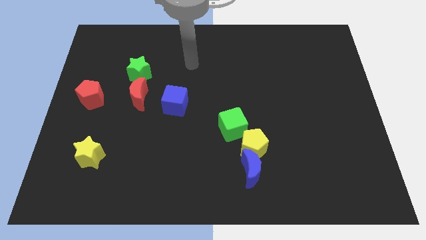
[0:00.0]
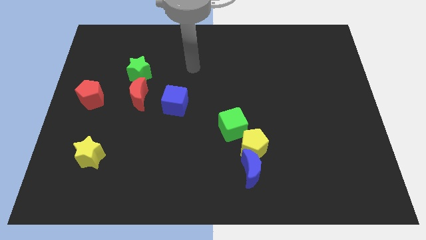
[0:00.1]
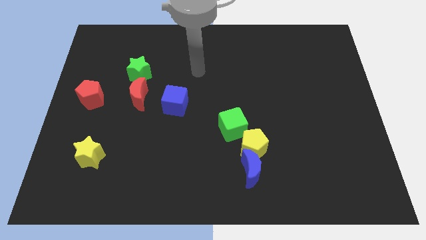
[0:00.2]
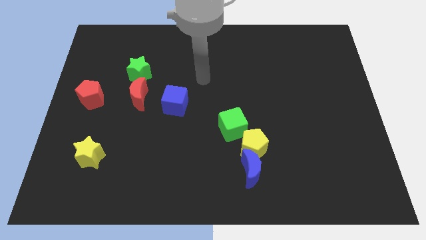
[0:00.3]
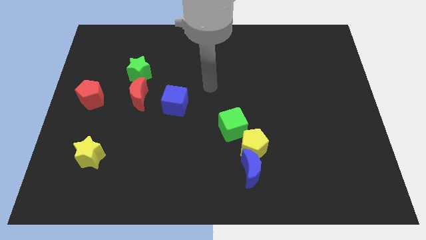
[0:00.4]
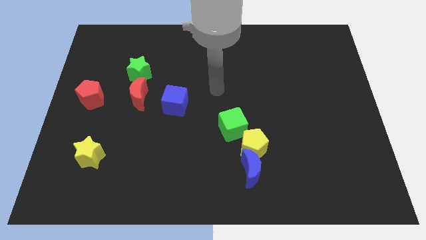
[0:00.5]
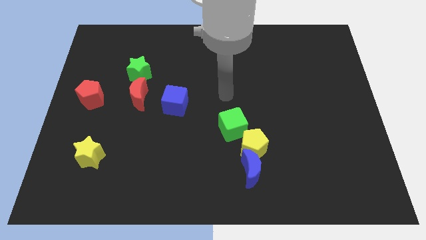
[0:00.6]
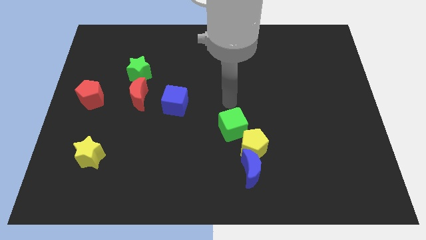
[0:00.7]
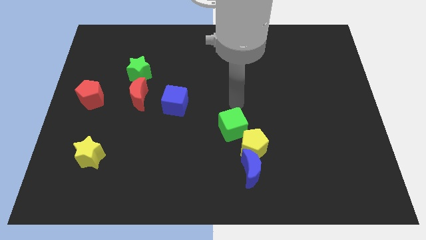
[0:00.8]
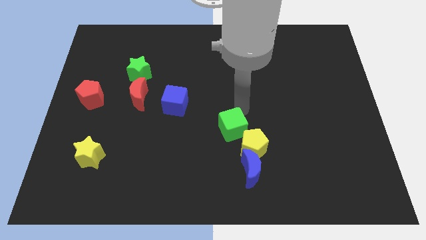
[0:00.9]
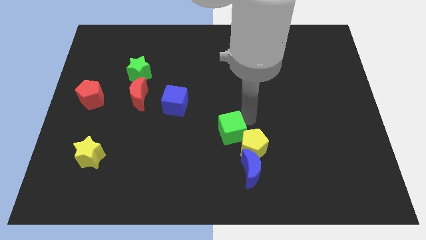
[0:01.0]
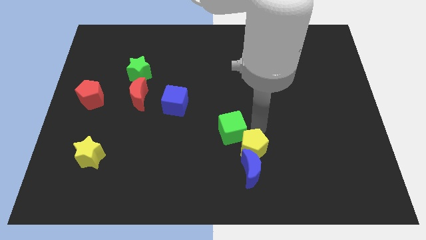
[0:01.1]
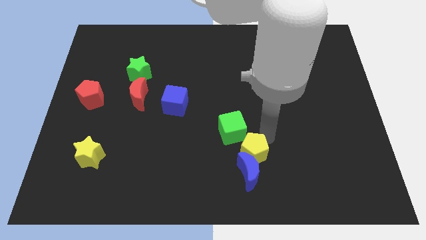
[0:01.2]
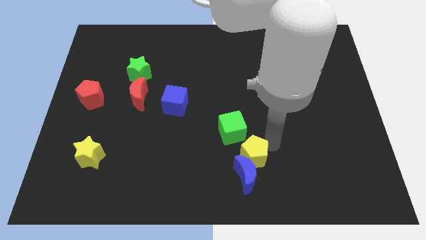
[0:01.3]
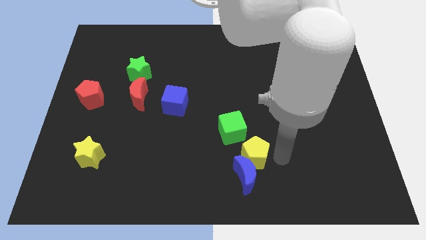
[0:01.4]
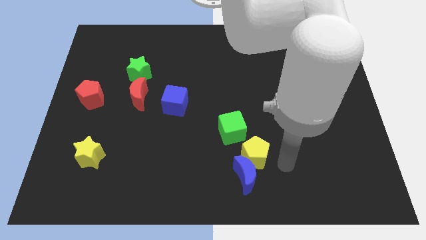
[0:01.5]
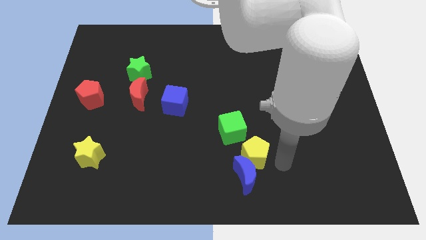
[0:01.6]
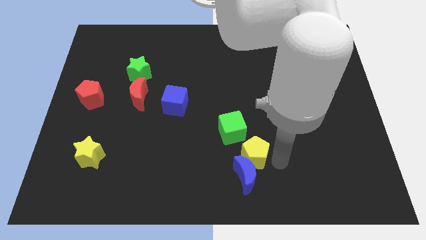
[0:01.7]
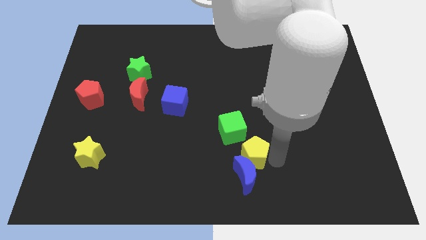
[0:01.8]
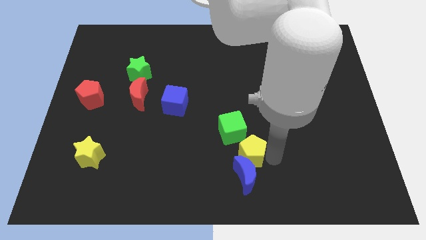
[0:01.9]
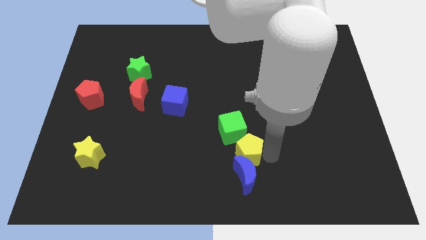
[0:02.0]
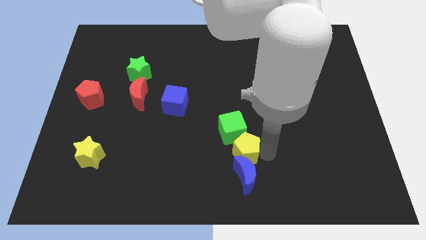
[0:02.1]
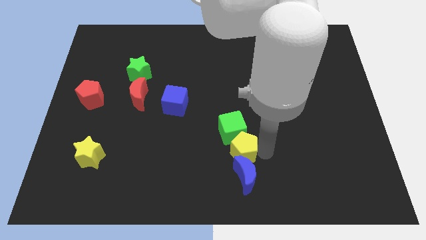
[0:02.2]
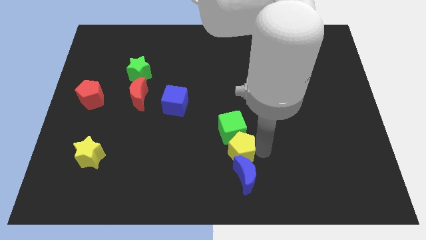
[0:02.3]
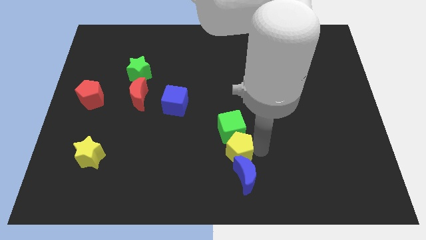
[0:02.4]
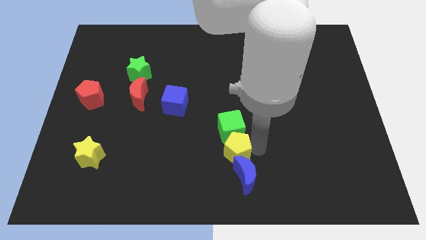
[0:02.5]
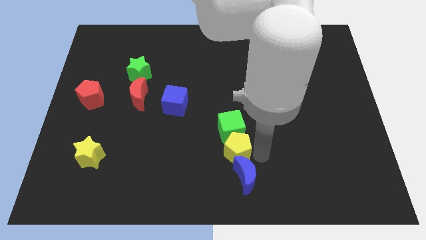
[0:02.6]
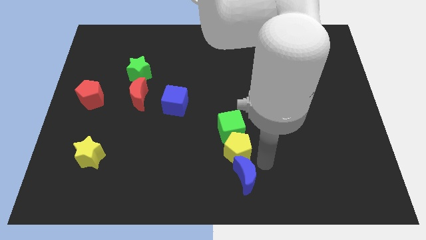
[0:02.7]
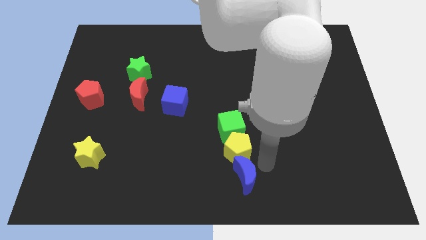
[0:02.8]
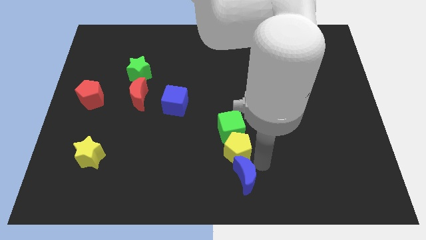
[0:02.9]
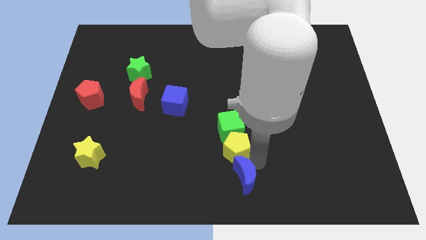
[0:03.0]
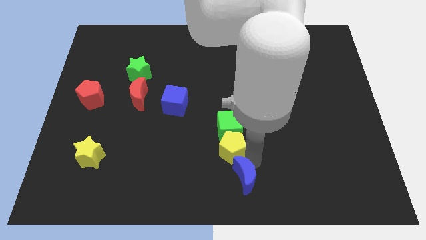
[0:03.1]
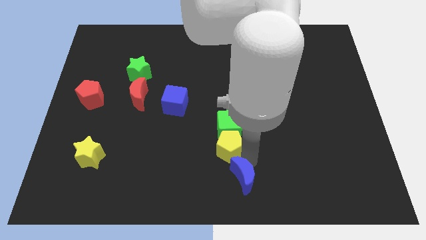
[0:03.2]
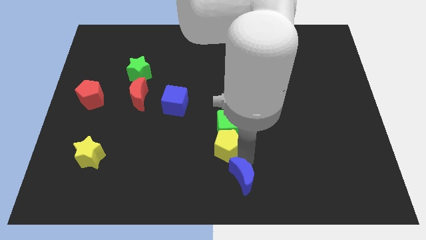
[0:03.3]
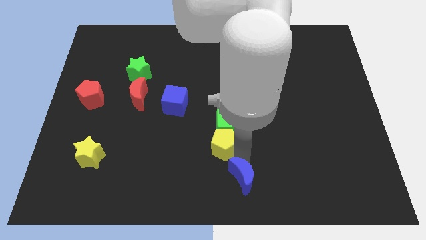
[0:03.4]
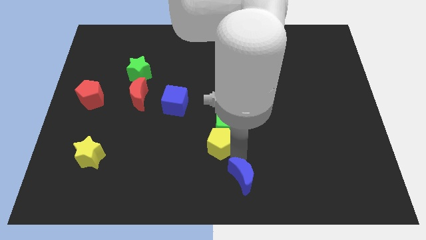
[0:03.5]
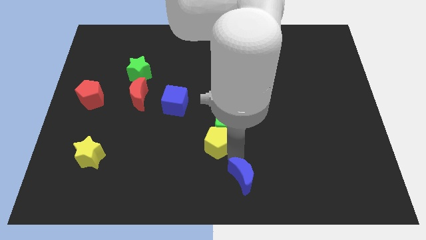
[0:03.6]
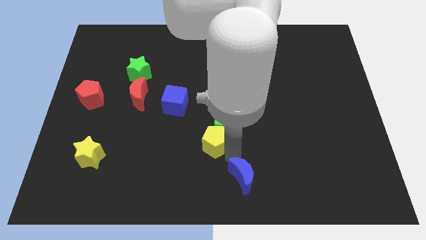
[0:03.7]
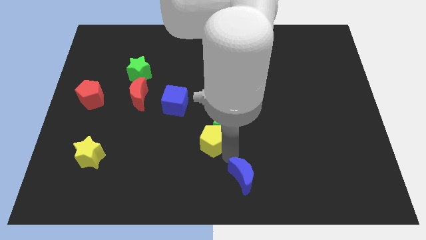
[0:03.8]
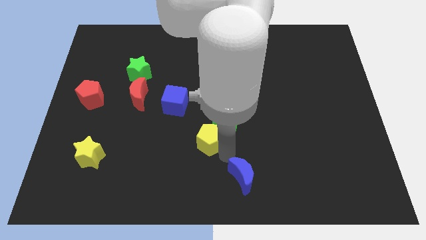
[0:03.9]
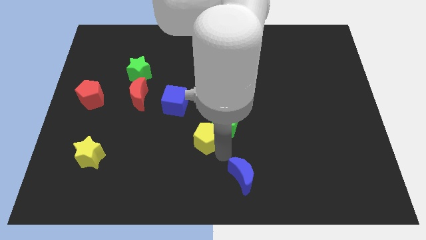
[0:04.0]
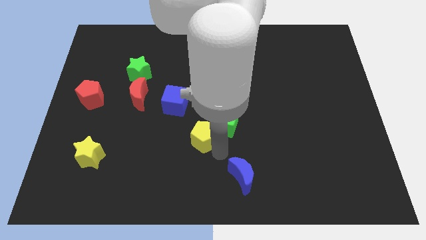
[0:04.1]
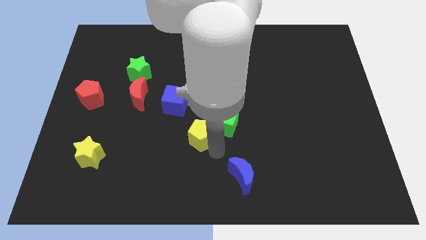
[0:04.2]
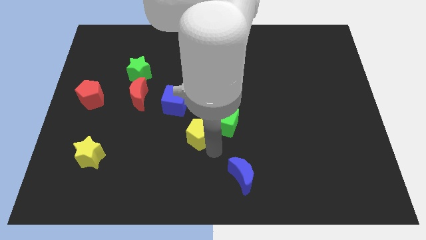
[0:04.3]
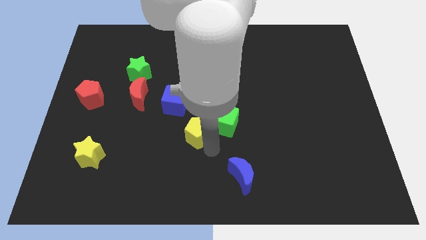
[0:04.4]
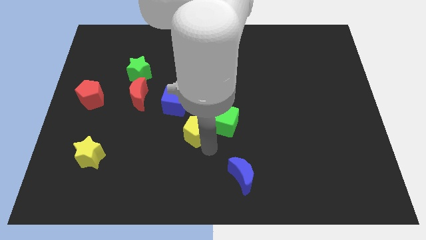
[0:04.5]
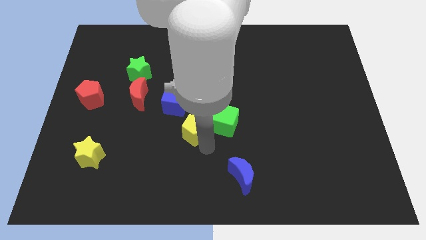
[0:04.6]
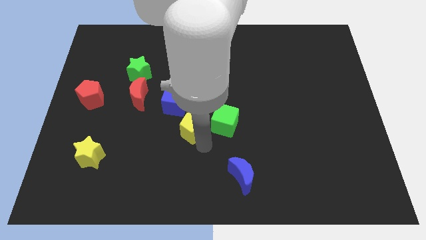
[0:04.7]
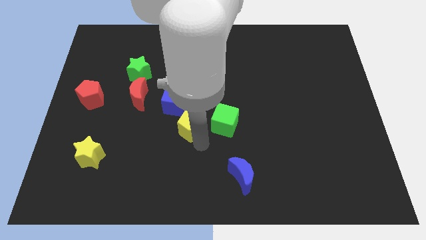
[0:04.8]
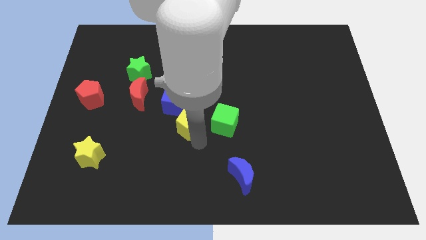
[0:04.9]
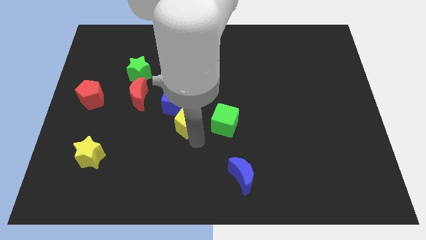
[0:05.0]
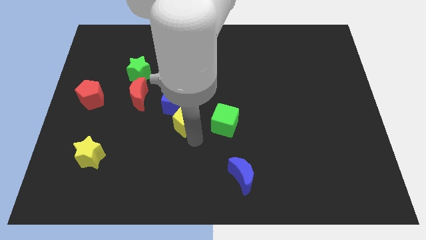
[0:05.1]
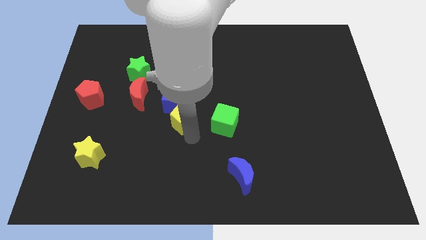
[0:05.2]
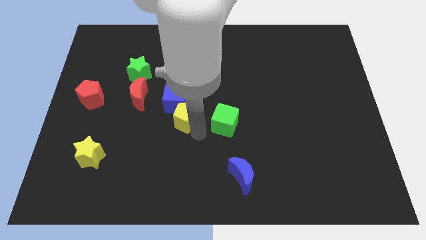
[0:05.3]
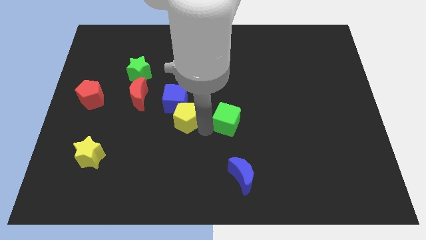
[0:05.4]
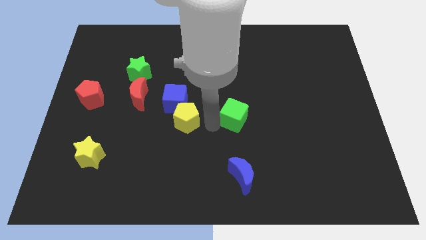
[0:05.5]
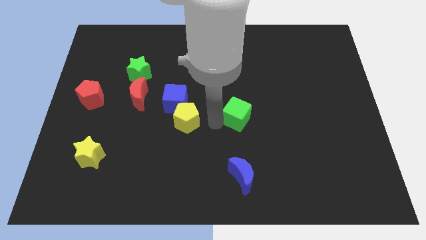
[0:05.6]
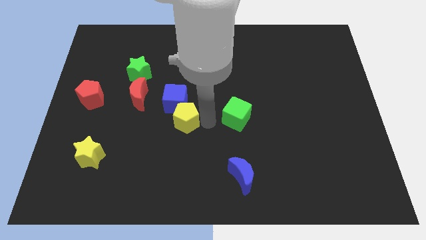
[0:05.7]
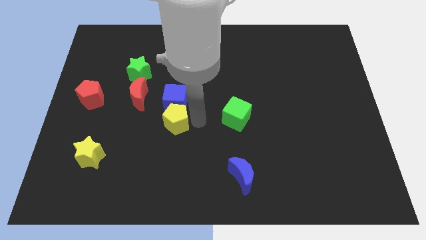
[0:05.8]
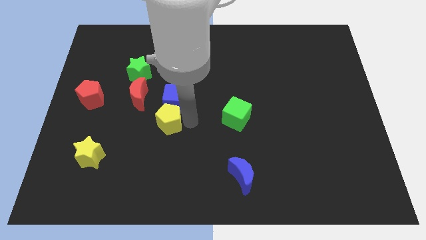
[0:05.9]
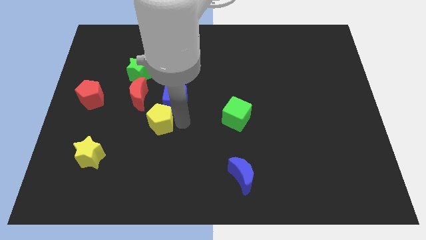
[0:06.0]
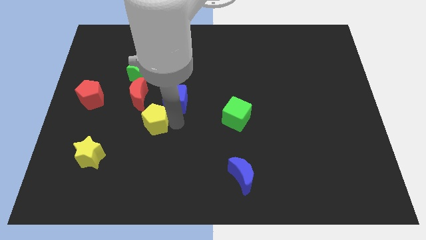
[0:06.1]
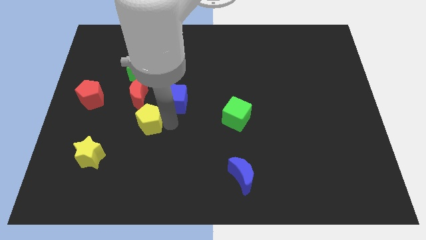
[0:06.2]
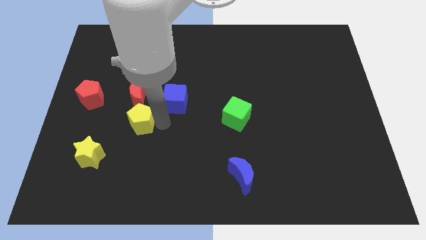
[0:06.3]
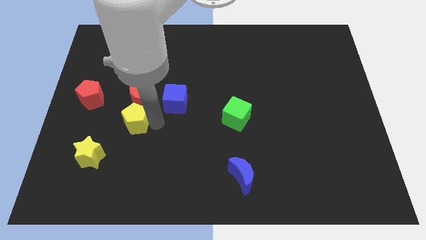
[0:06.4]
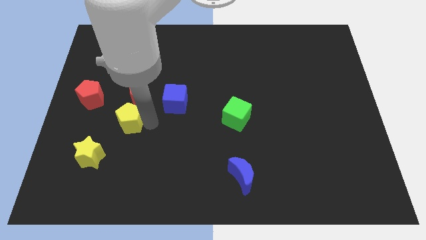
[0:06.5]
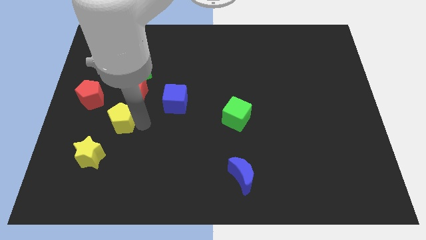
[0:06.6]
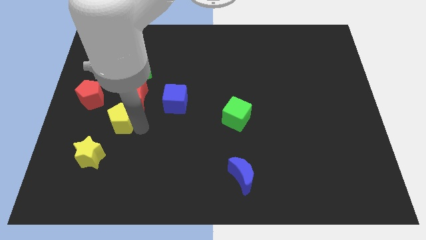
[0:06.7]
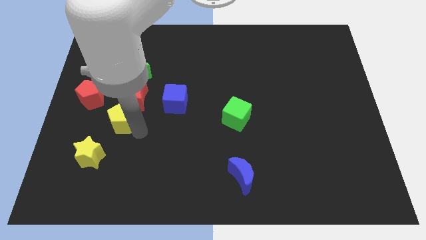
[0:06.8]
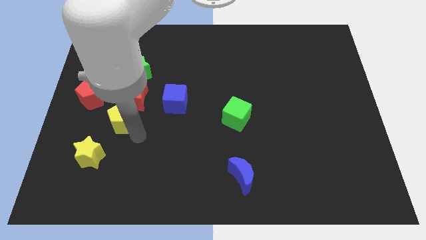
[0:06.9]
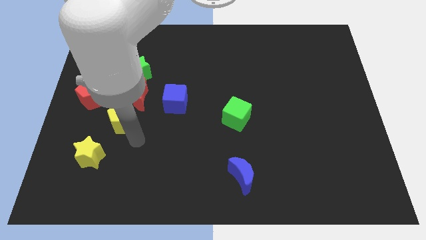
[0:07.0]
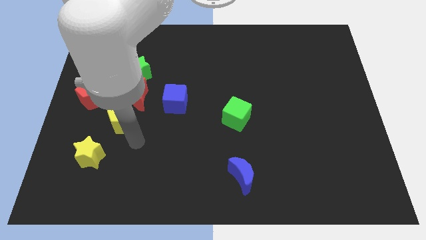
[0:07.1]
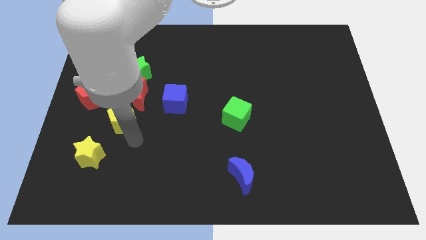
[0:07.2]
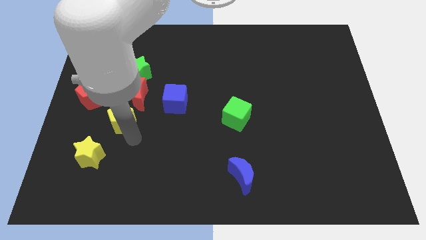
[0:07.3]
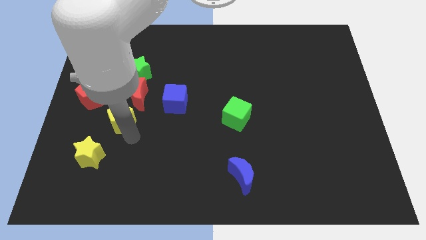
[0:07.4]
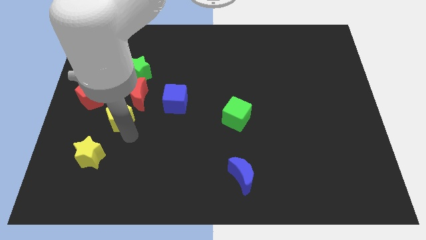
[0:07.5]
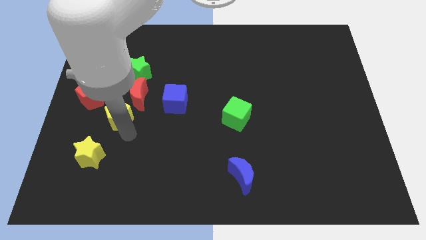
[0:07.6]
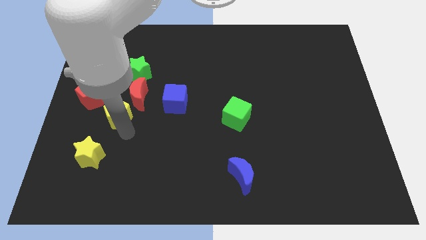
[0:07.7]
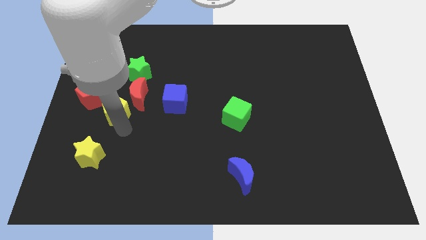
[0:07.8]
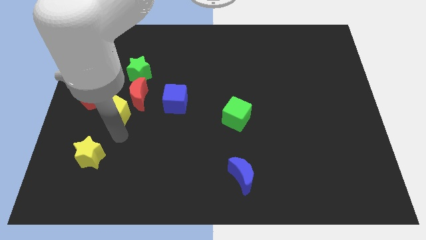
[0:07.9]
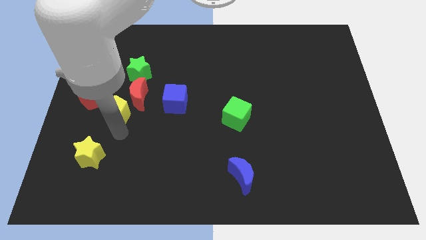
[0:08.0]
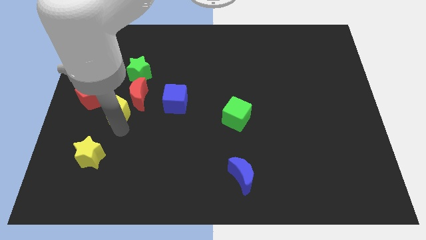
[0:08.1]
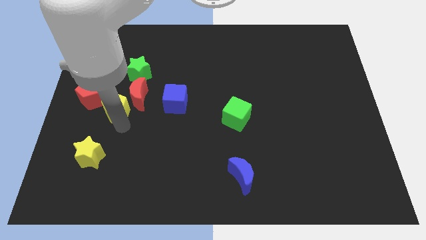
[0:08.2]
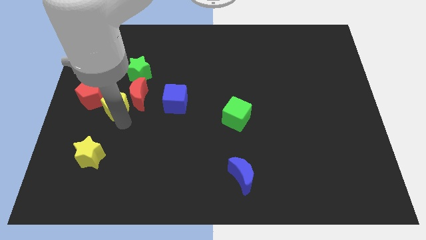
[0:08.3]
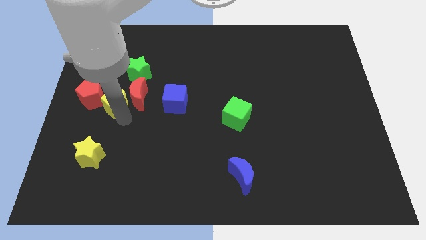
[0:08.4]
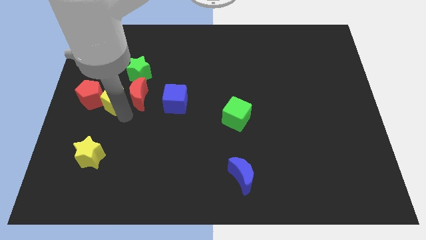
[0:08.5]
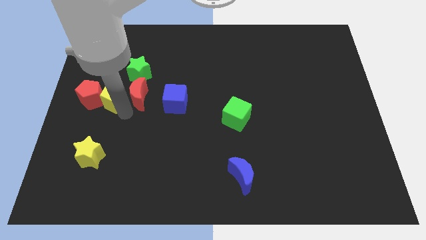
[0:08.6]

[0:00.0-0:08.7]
move the yellow pentagon to the top right side of the red pentagon
